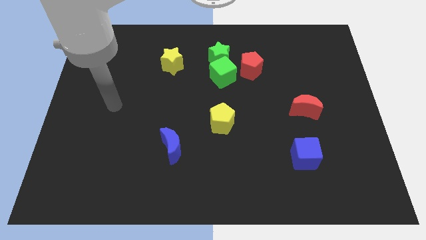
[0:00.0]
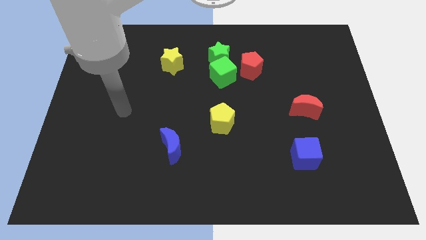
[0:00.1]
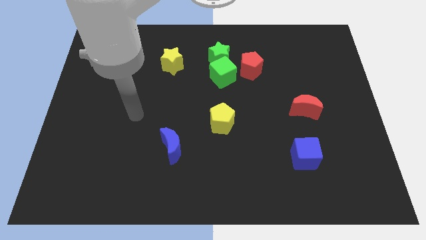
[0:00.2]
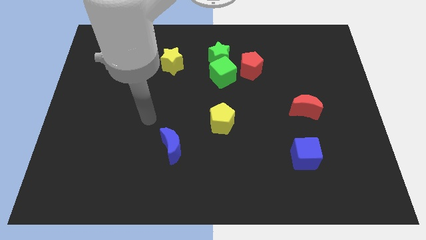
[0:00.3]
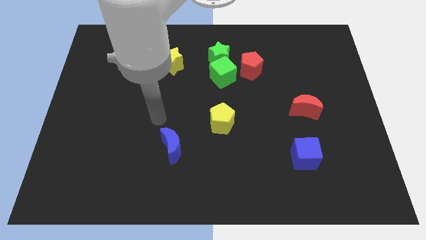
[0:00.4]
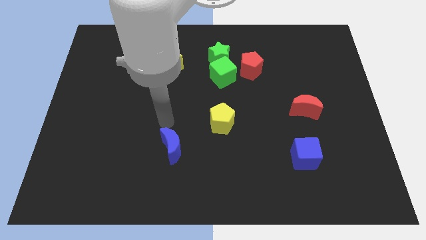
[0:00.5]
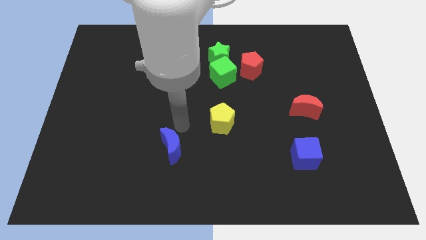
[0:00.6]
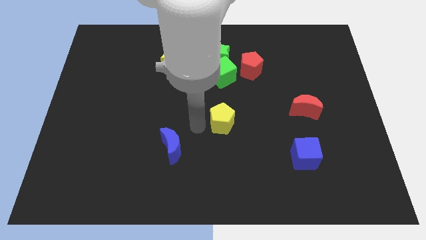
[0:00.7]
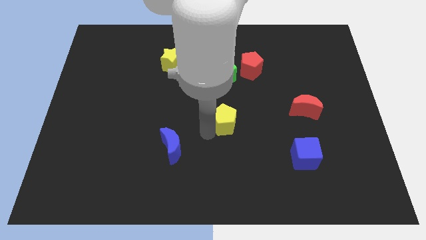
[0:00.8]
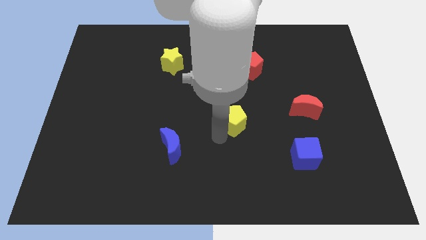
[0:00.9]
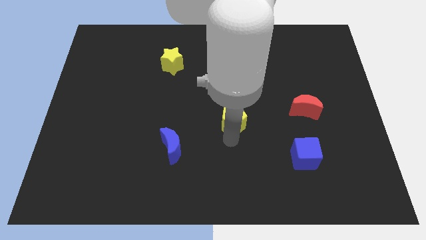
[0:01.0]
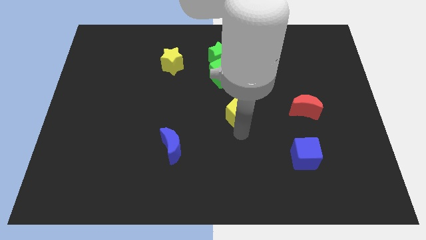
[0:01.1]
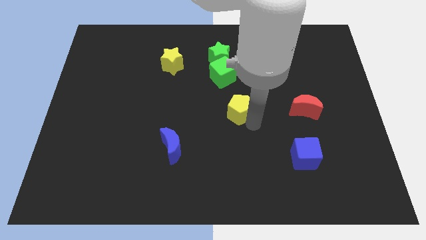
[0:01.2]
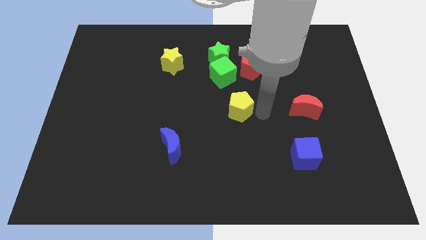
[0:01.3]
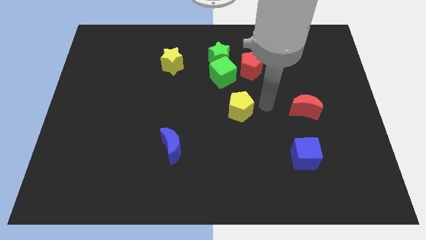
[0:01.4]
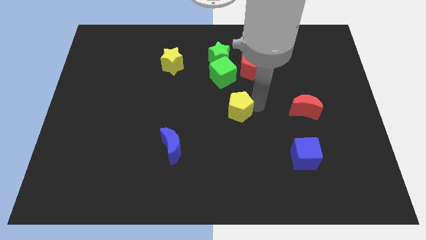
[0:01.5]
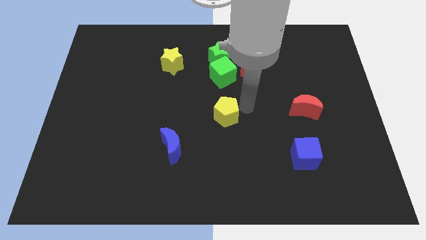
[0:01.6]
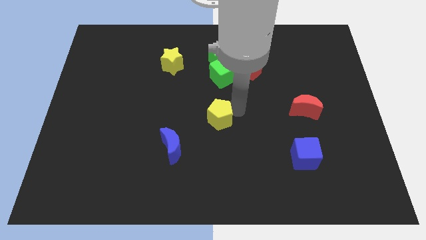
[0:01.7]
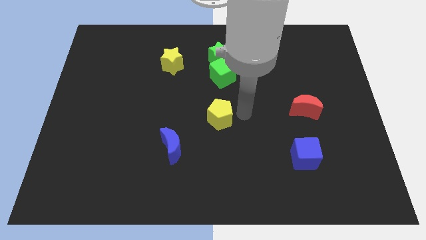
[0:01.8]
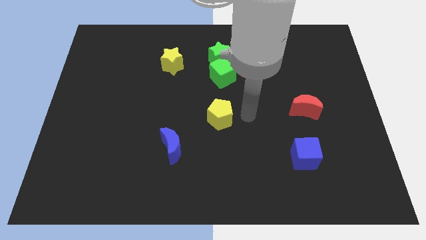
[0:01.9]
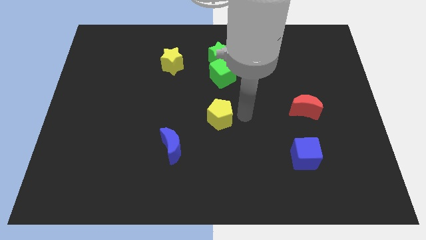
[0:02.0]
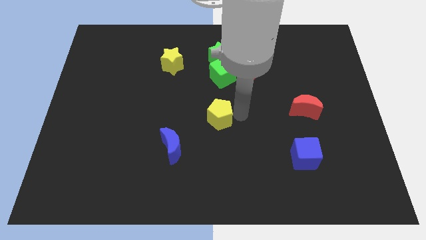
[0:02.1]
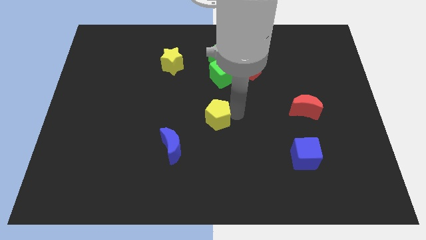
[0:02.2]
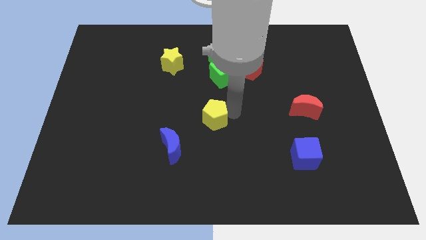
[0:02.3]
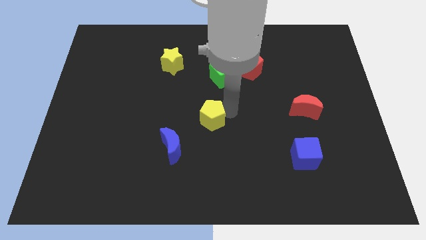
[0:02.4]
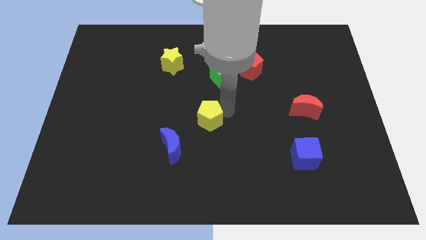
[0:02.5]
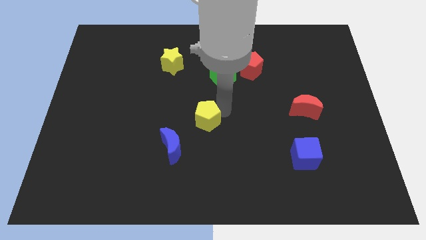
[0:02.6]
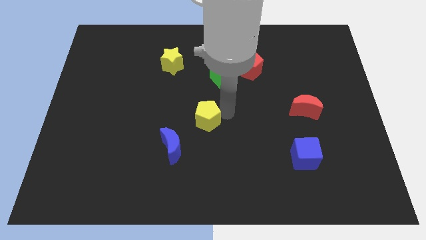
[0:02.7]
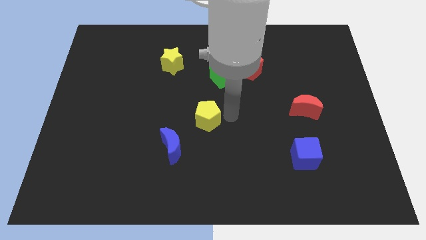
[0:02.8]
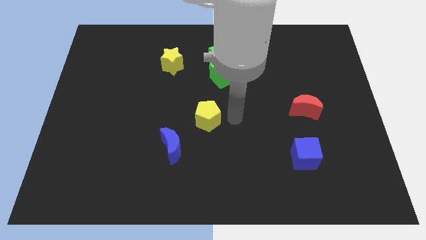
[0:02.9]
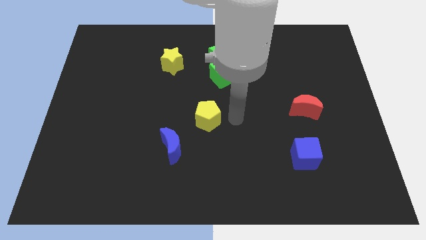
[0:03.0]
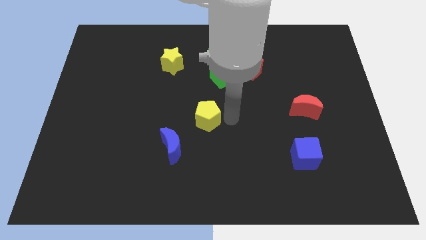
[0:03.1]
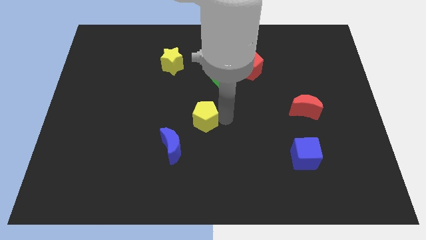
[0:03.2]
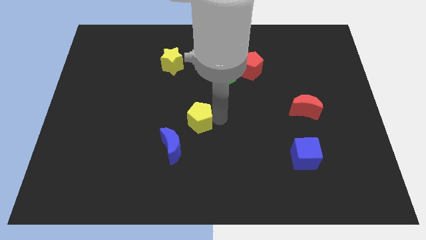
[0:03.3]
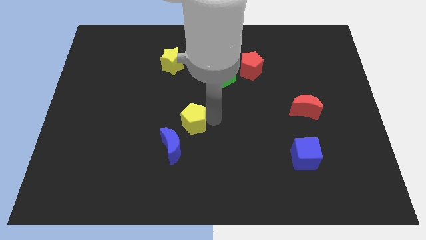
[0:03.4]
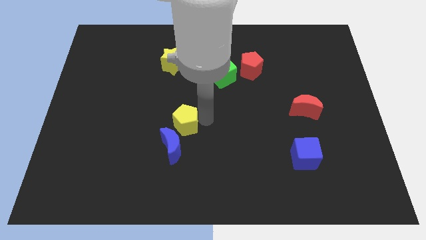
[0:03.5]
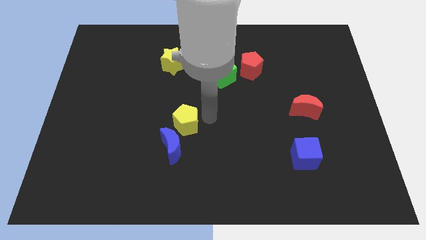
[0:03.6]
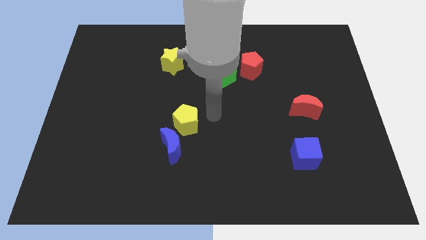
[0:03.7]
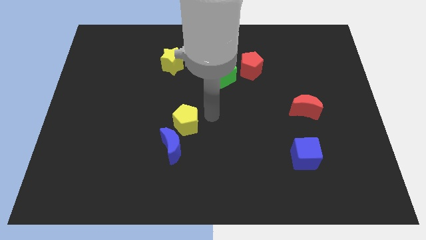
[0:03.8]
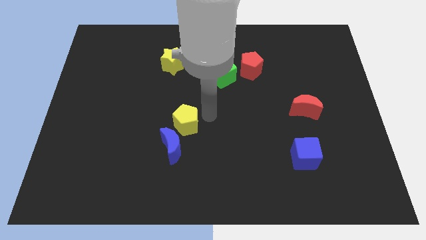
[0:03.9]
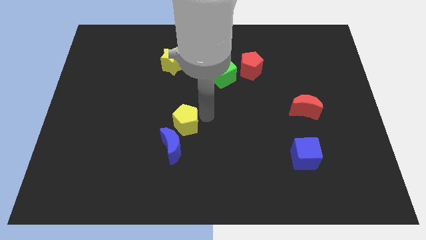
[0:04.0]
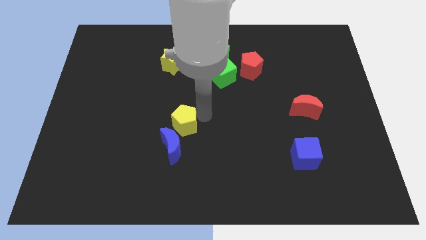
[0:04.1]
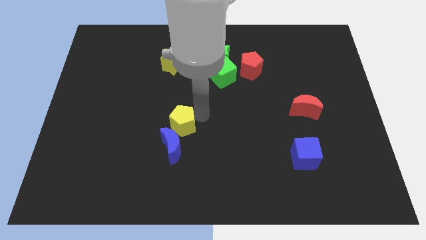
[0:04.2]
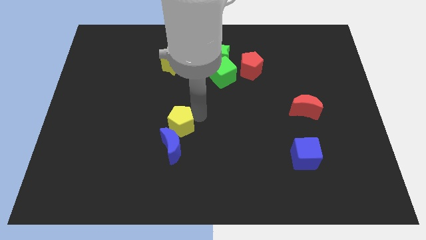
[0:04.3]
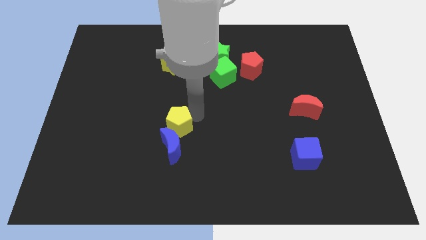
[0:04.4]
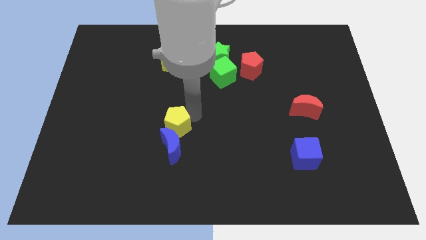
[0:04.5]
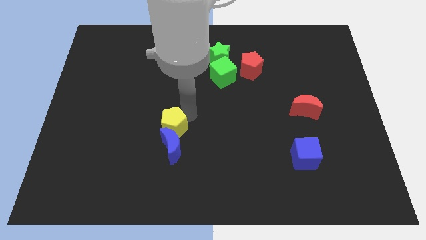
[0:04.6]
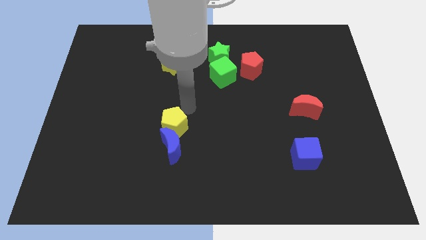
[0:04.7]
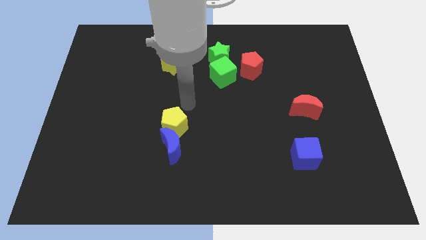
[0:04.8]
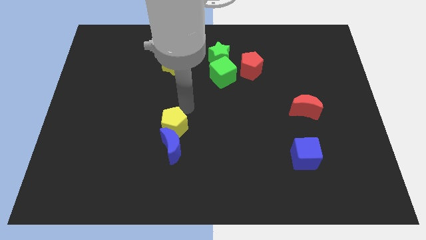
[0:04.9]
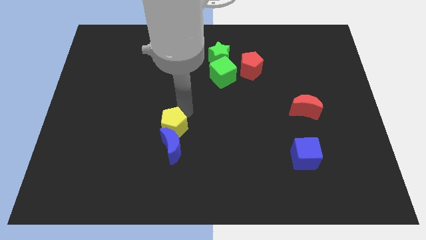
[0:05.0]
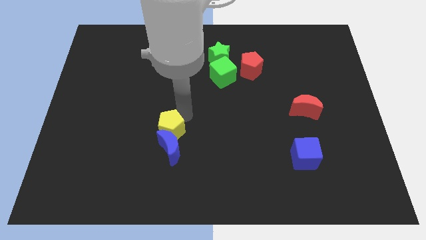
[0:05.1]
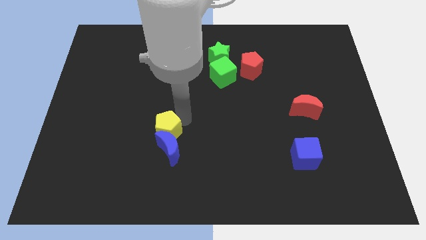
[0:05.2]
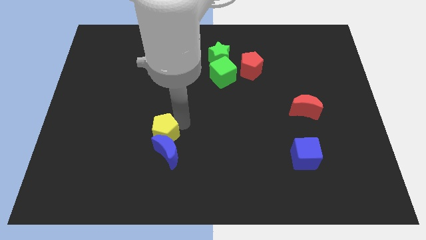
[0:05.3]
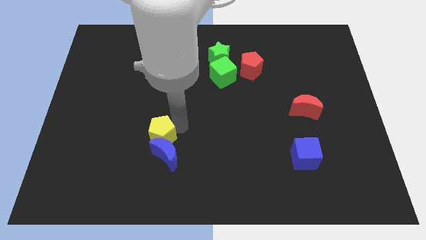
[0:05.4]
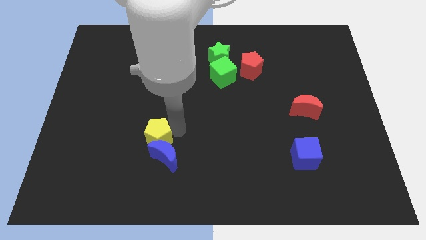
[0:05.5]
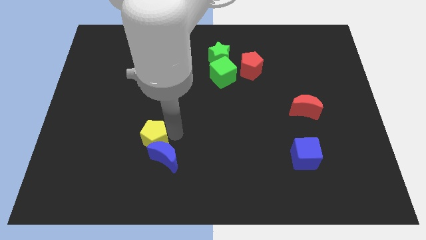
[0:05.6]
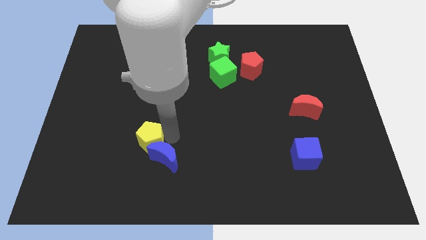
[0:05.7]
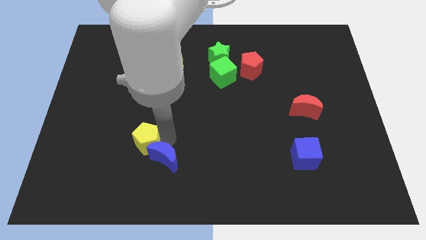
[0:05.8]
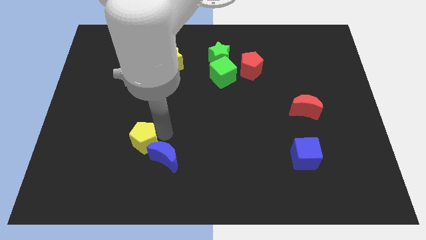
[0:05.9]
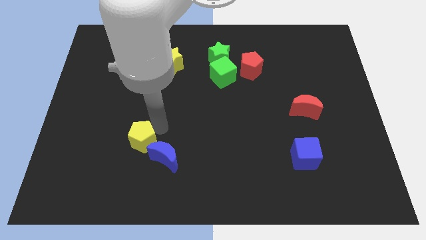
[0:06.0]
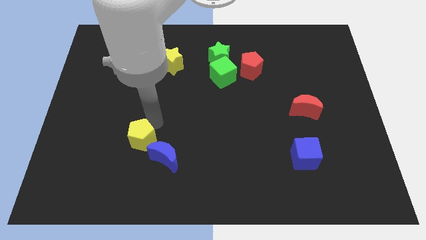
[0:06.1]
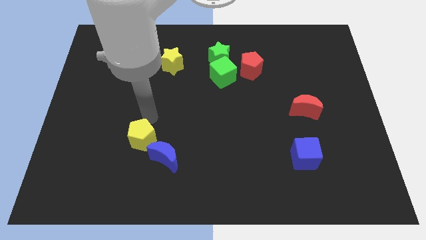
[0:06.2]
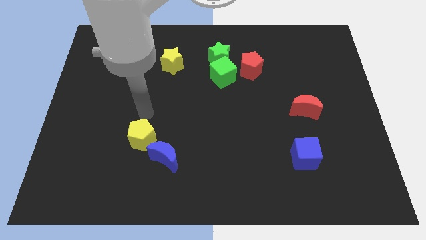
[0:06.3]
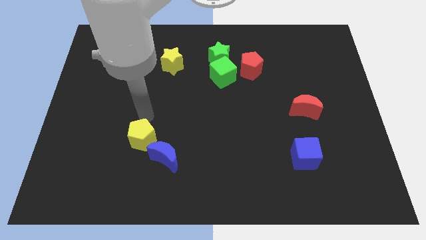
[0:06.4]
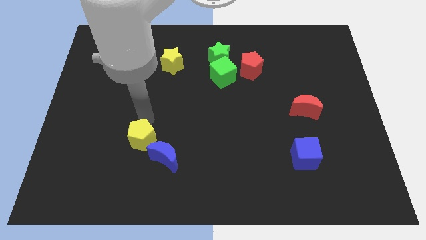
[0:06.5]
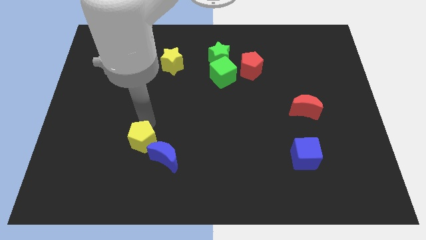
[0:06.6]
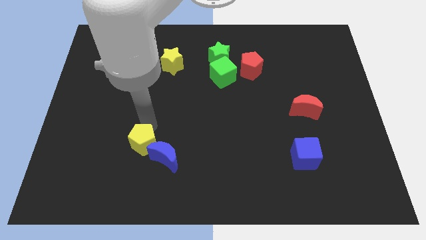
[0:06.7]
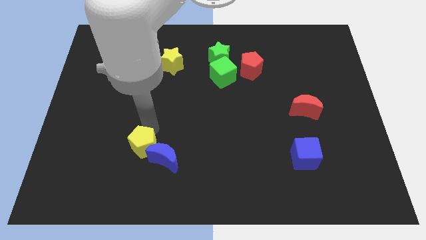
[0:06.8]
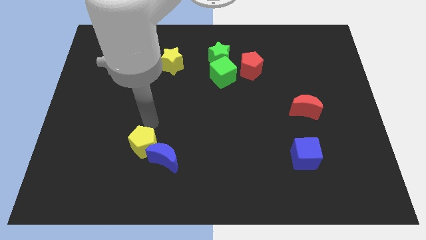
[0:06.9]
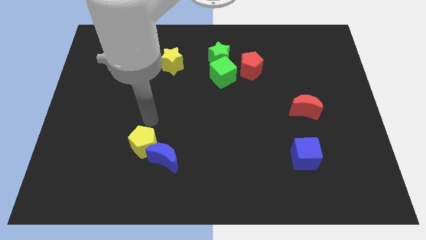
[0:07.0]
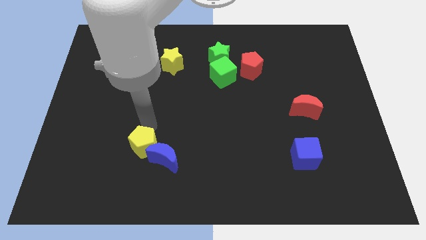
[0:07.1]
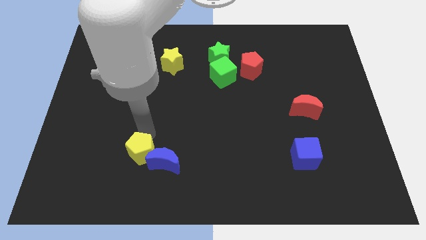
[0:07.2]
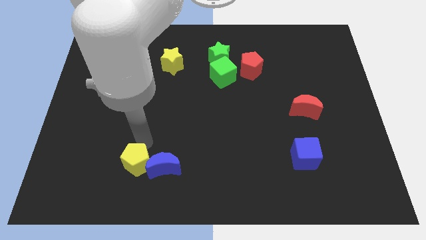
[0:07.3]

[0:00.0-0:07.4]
put the yellow pentagon to the bottom left side of the blue moon

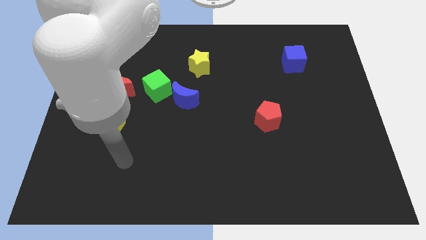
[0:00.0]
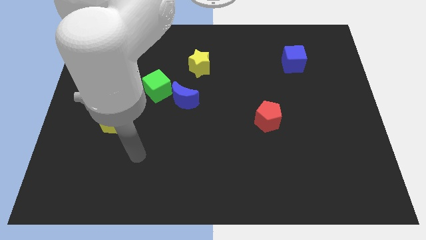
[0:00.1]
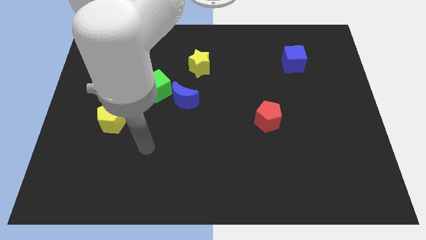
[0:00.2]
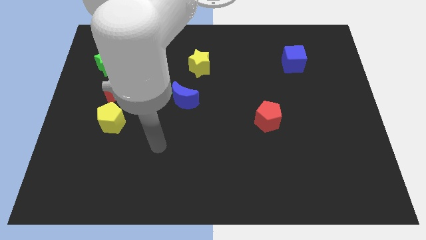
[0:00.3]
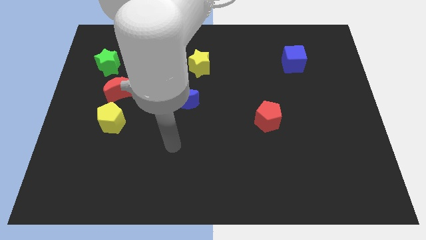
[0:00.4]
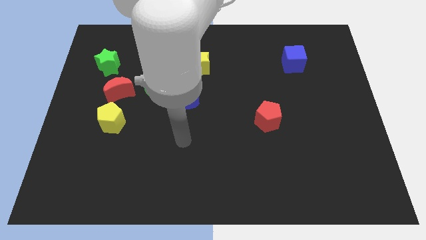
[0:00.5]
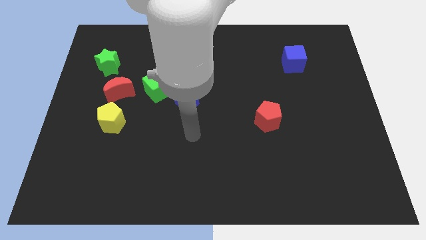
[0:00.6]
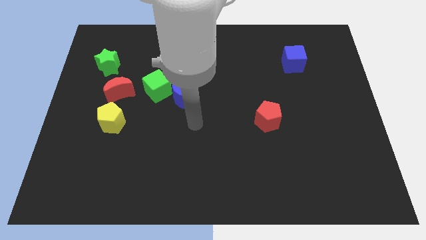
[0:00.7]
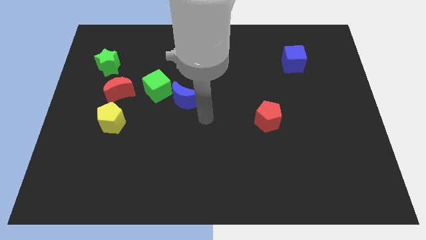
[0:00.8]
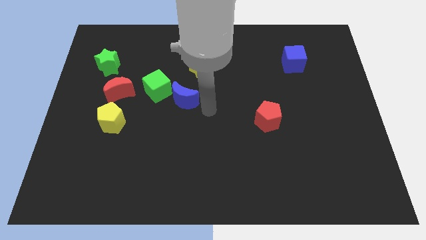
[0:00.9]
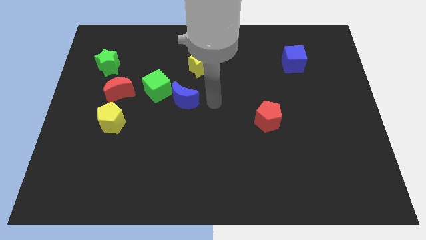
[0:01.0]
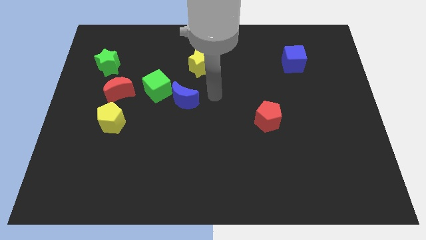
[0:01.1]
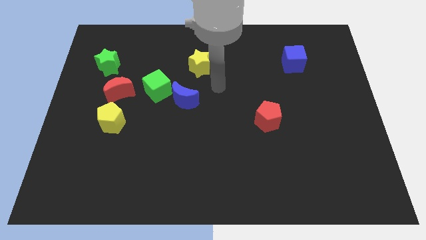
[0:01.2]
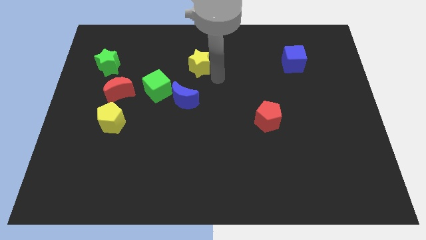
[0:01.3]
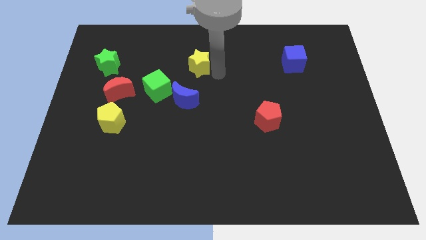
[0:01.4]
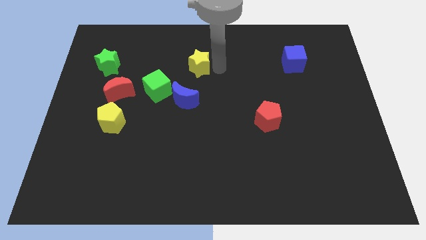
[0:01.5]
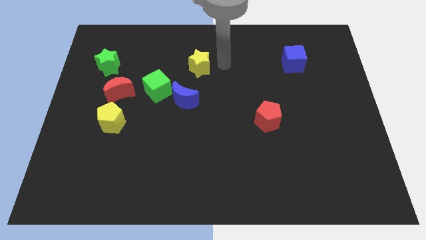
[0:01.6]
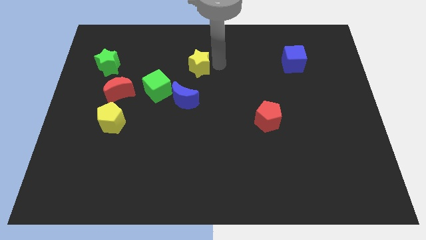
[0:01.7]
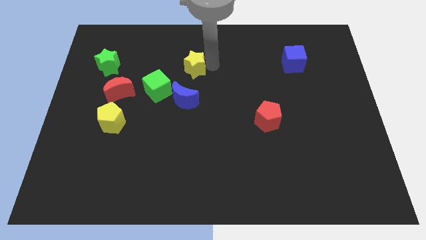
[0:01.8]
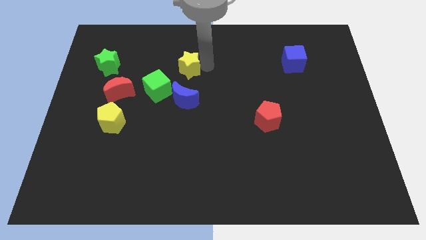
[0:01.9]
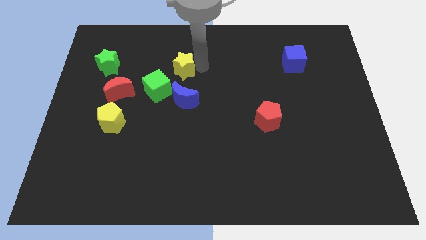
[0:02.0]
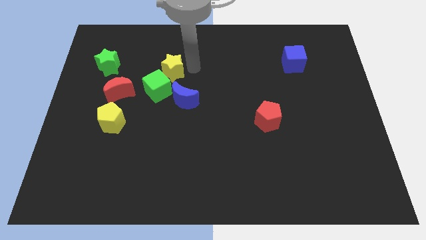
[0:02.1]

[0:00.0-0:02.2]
push the yellow star to the top left side of the blue moon
